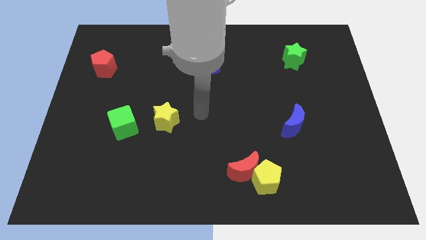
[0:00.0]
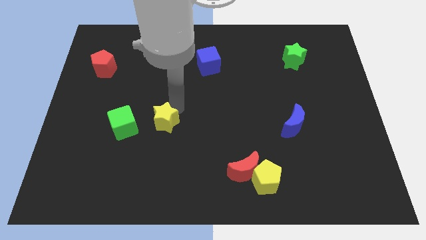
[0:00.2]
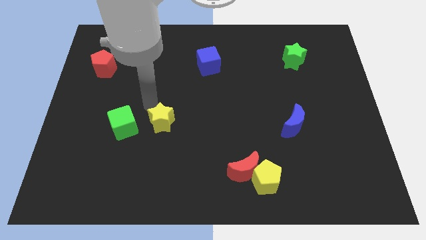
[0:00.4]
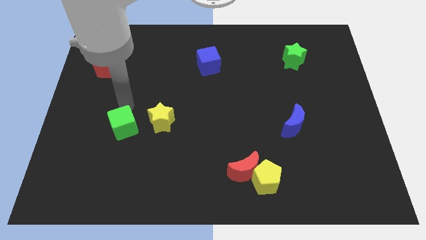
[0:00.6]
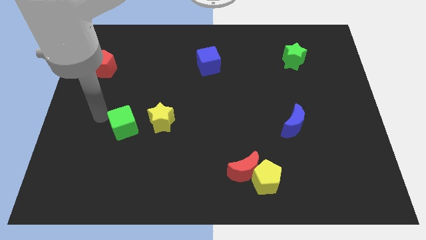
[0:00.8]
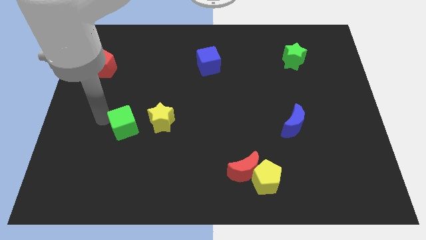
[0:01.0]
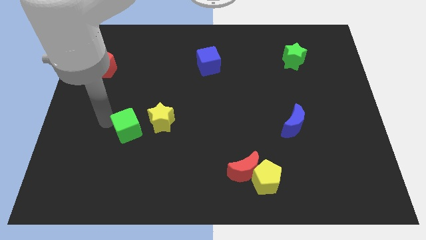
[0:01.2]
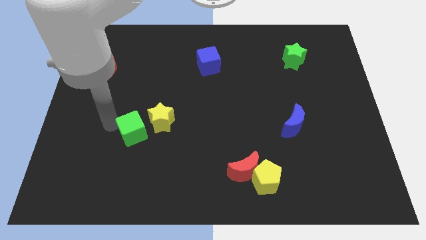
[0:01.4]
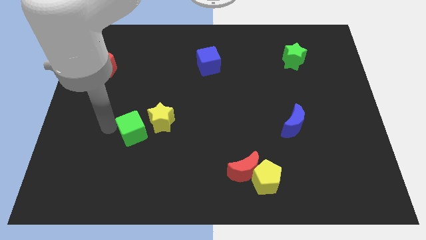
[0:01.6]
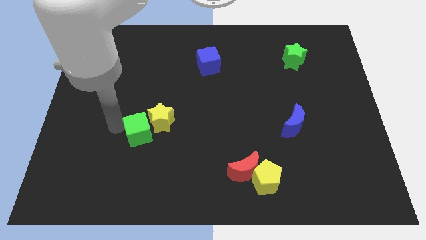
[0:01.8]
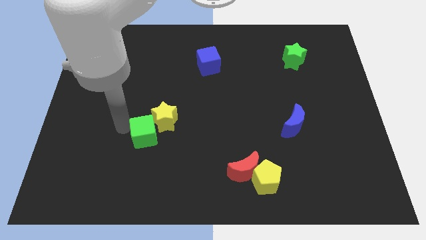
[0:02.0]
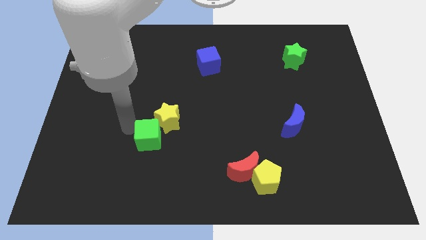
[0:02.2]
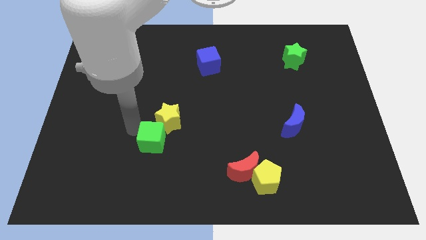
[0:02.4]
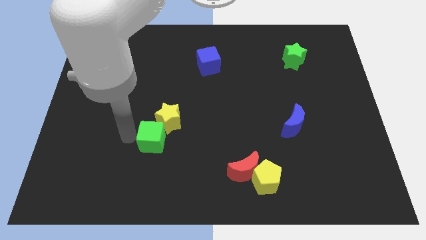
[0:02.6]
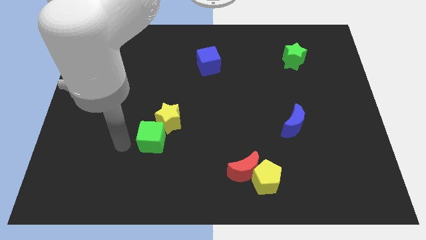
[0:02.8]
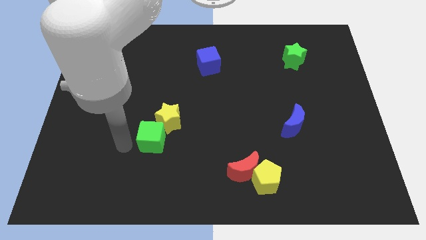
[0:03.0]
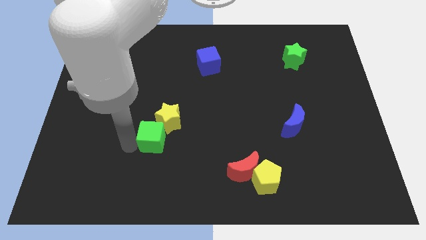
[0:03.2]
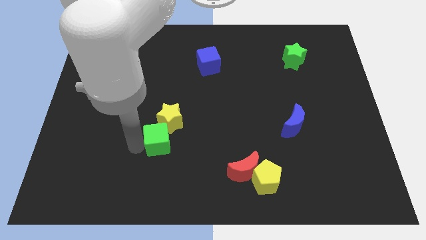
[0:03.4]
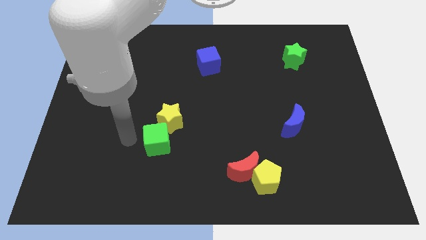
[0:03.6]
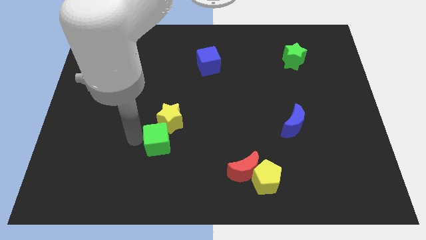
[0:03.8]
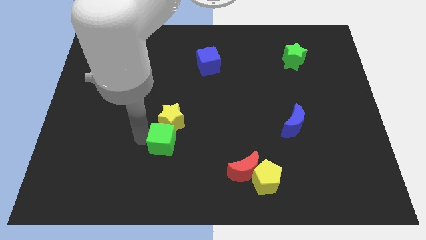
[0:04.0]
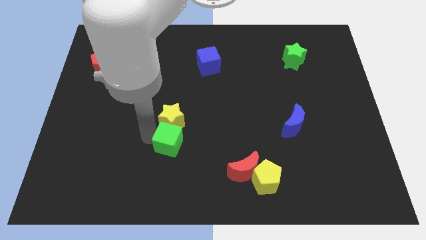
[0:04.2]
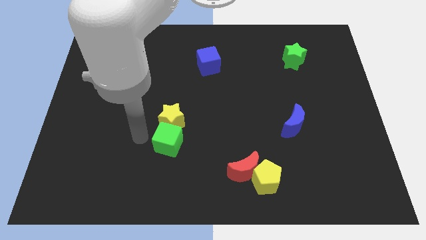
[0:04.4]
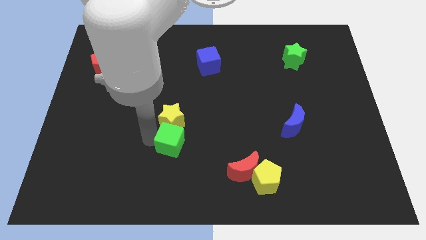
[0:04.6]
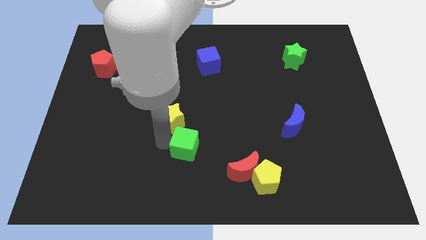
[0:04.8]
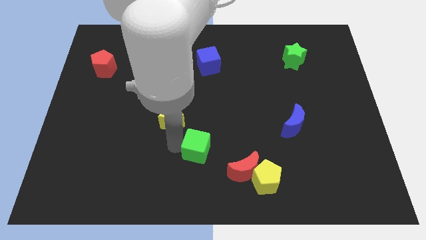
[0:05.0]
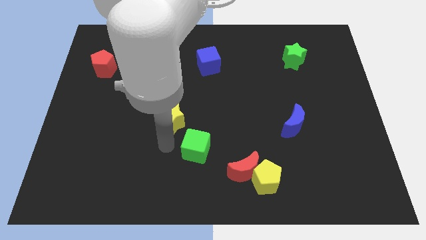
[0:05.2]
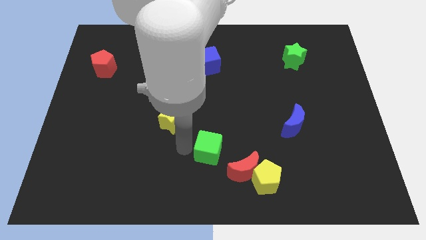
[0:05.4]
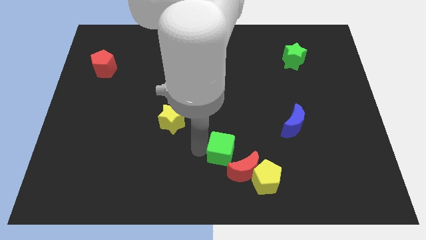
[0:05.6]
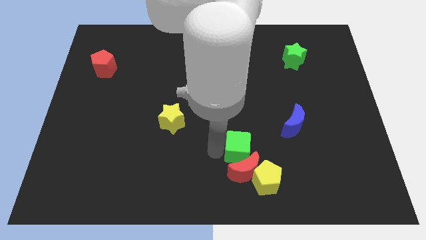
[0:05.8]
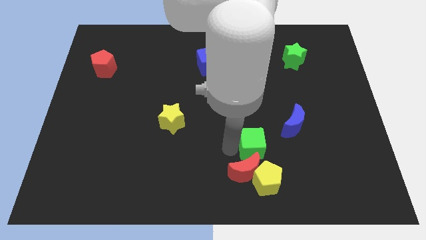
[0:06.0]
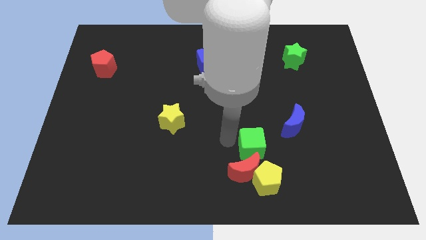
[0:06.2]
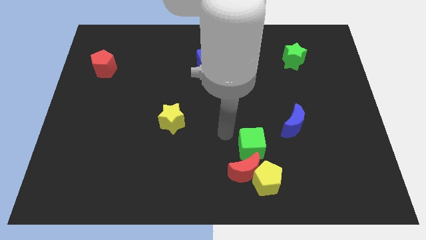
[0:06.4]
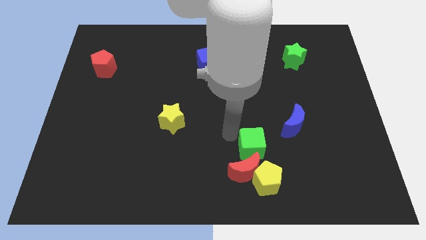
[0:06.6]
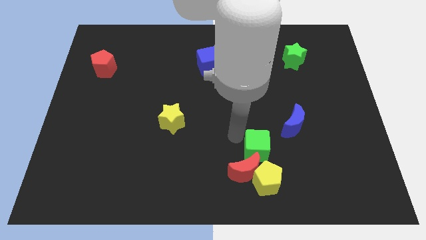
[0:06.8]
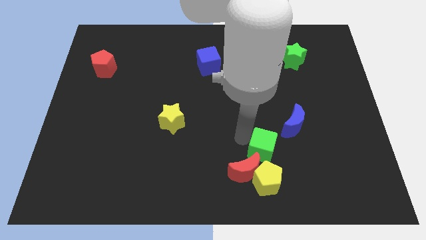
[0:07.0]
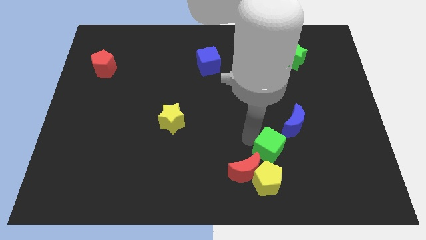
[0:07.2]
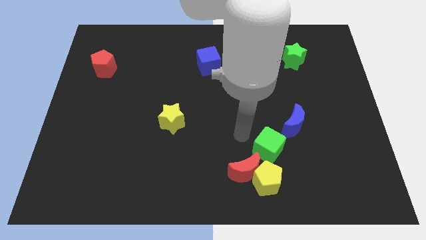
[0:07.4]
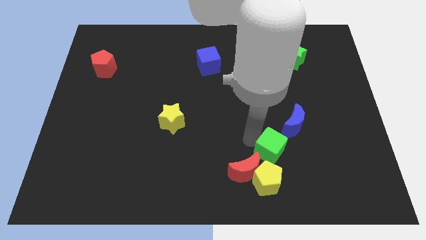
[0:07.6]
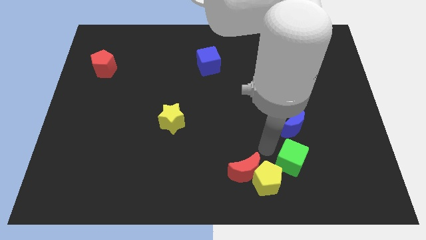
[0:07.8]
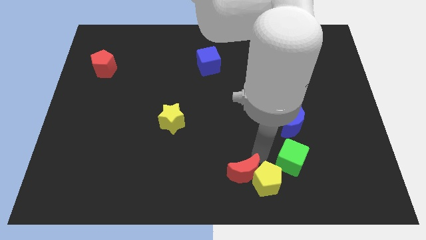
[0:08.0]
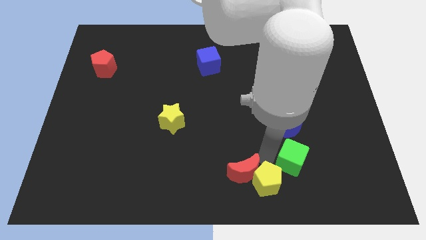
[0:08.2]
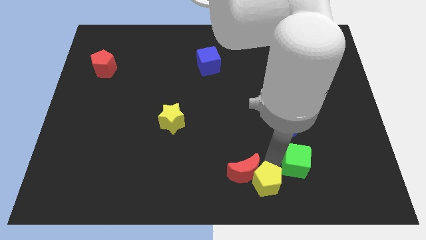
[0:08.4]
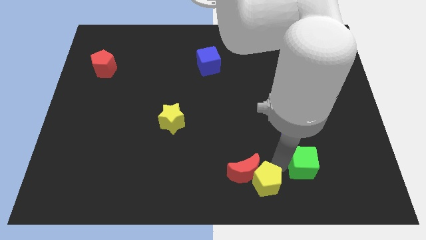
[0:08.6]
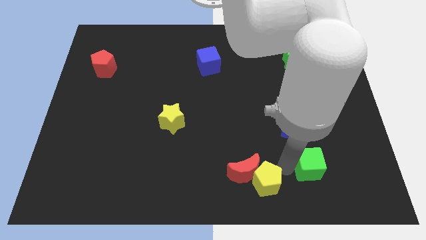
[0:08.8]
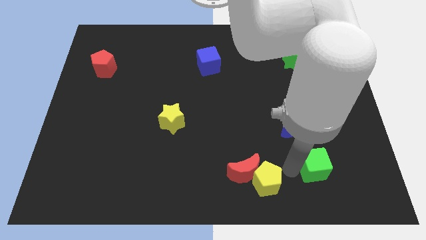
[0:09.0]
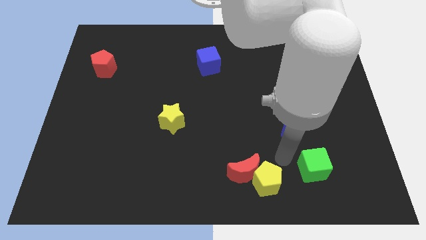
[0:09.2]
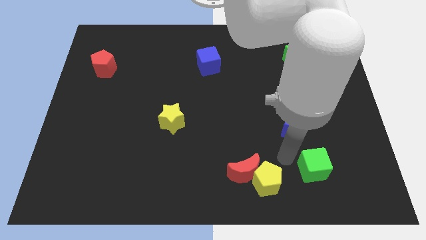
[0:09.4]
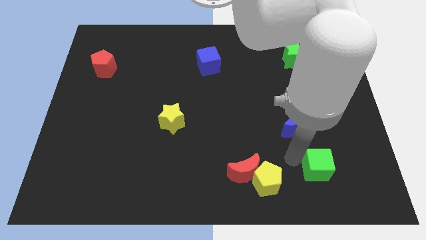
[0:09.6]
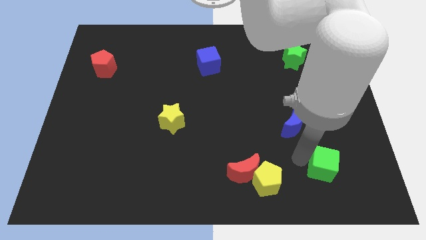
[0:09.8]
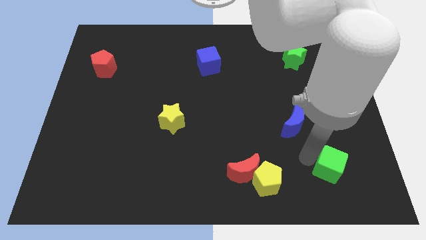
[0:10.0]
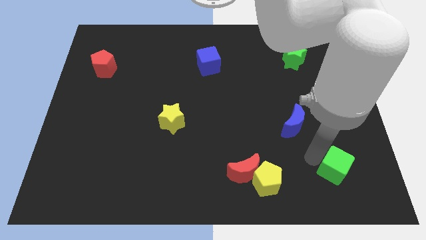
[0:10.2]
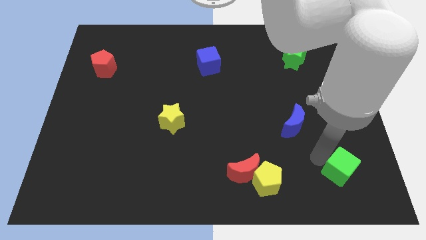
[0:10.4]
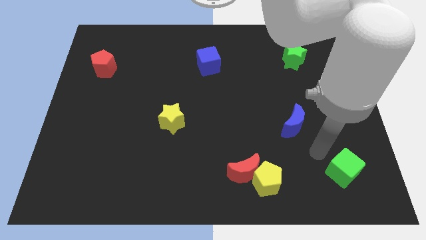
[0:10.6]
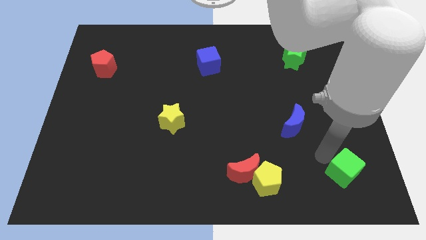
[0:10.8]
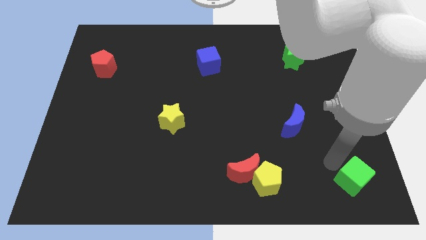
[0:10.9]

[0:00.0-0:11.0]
push the green cube to the lower right corner

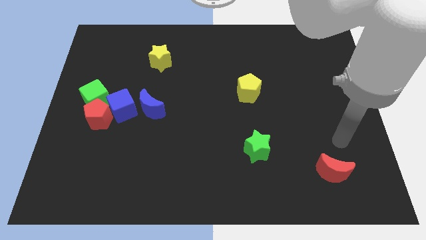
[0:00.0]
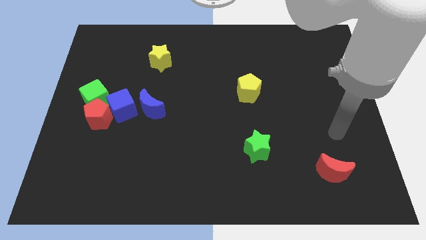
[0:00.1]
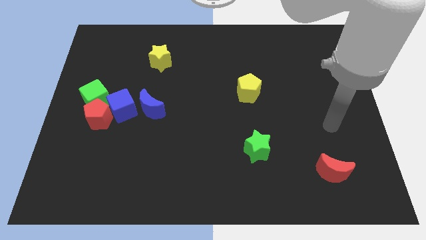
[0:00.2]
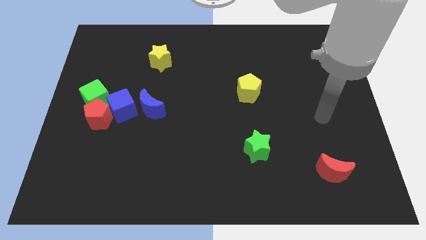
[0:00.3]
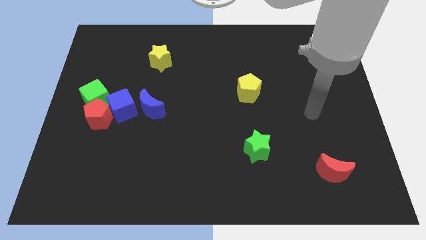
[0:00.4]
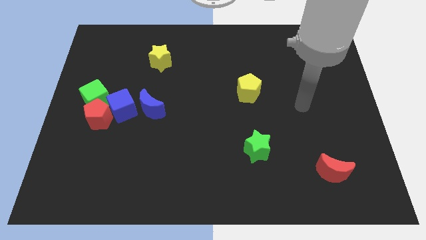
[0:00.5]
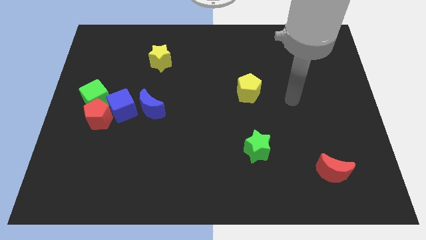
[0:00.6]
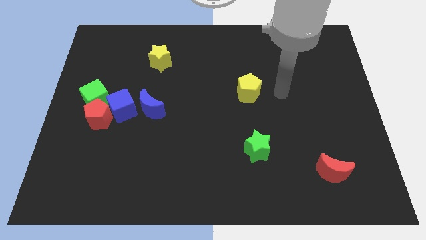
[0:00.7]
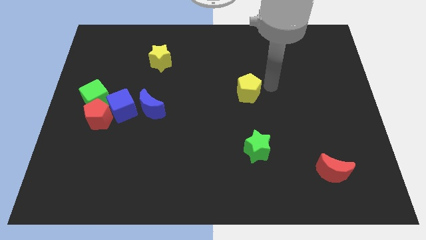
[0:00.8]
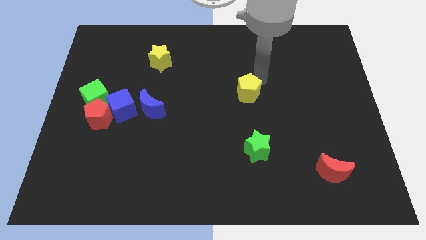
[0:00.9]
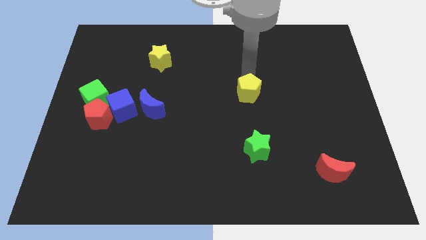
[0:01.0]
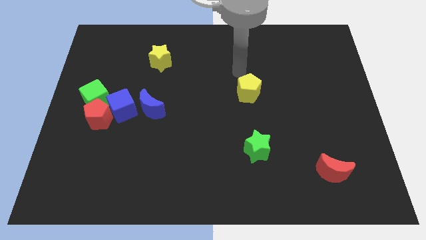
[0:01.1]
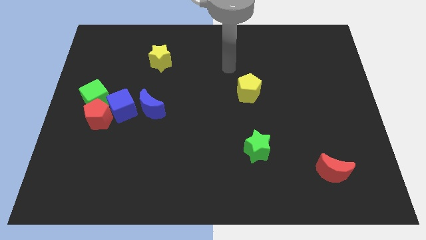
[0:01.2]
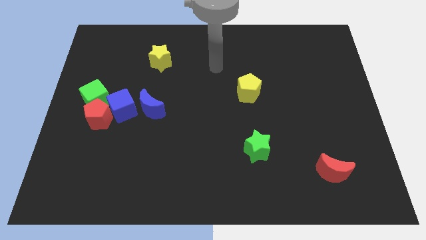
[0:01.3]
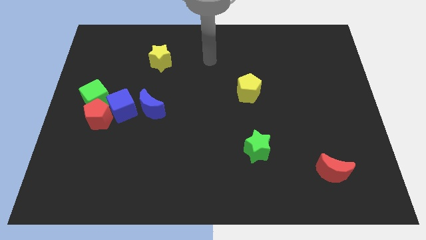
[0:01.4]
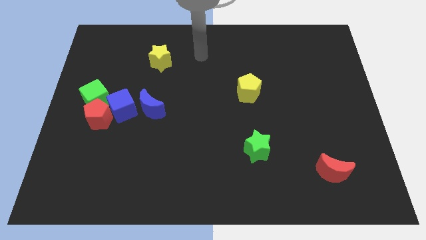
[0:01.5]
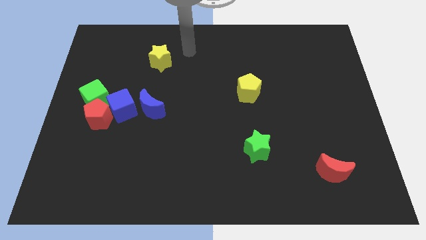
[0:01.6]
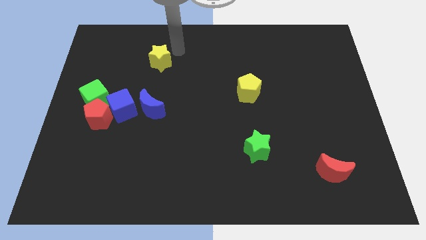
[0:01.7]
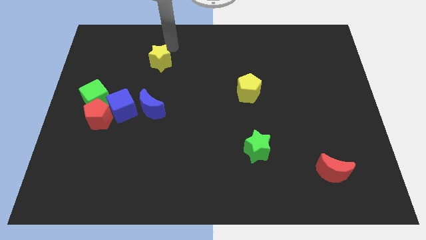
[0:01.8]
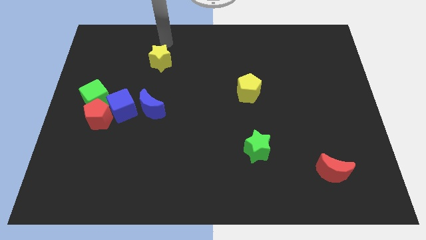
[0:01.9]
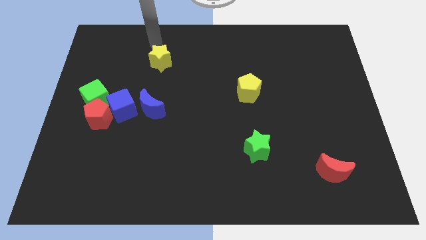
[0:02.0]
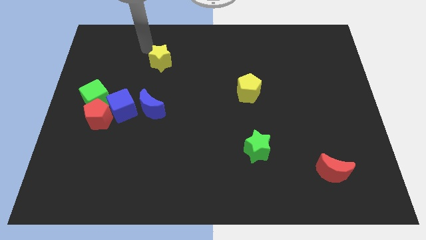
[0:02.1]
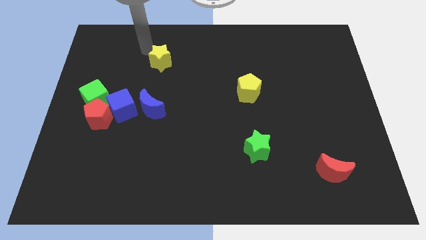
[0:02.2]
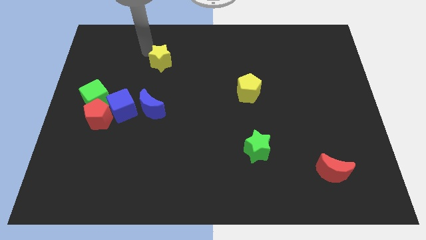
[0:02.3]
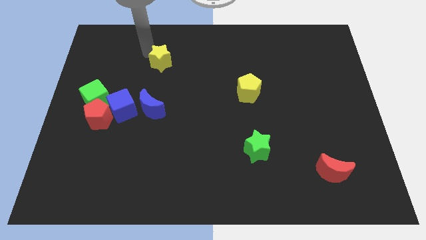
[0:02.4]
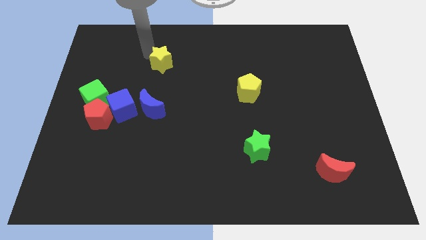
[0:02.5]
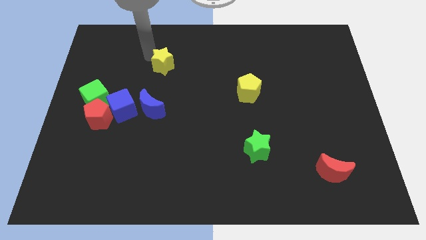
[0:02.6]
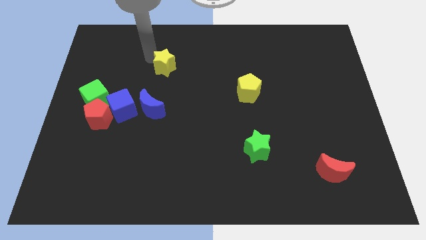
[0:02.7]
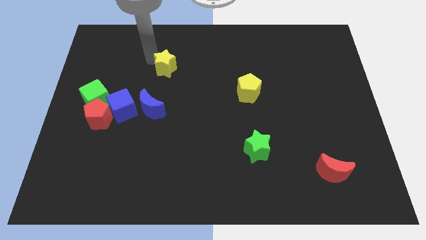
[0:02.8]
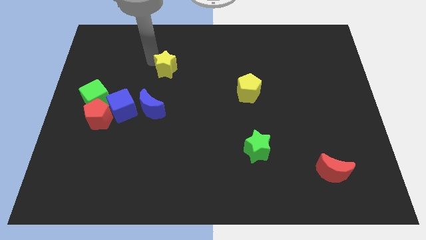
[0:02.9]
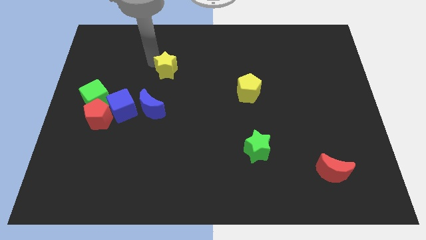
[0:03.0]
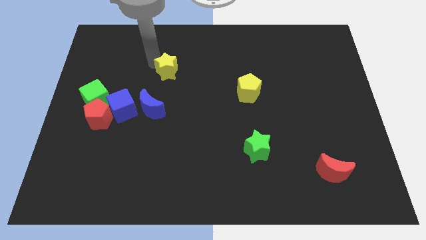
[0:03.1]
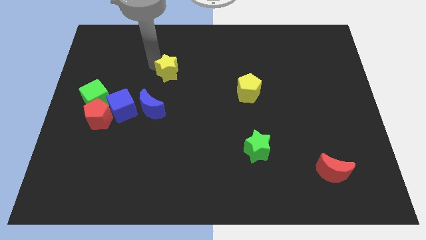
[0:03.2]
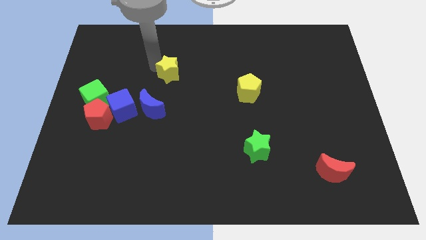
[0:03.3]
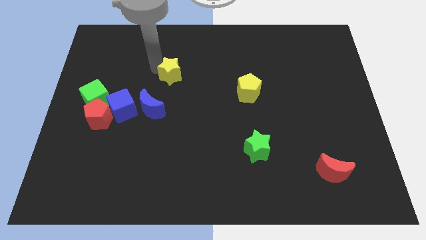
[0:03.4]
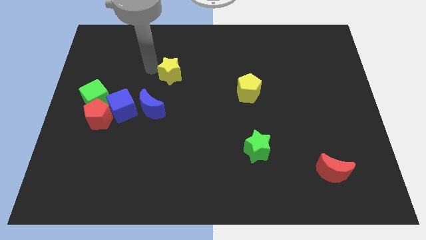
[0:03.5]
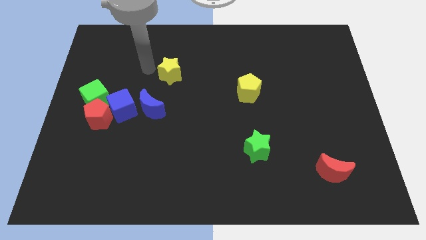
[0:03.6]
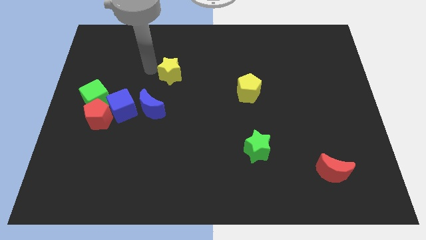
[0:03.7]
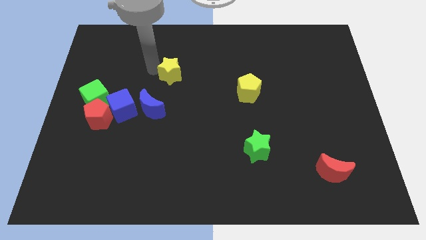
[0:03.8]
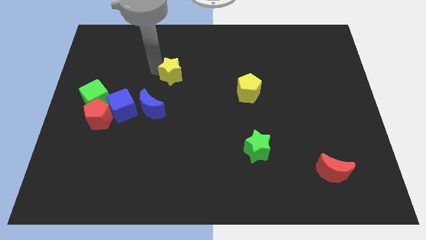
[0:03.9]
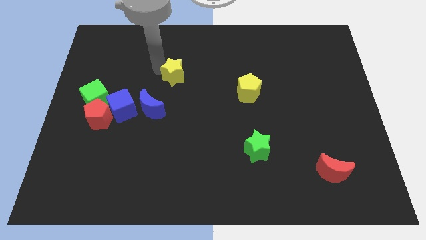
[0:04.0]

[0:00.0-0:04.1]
push the yellow star to the middle
